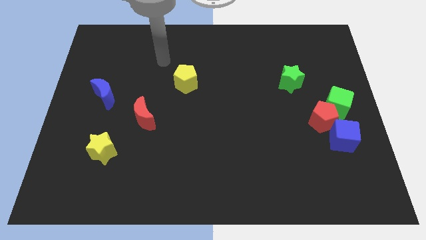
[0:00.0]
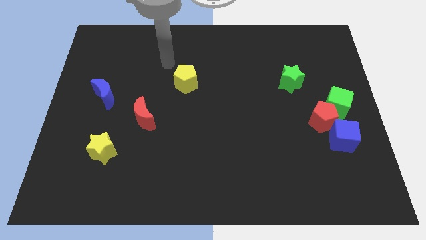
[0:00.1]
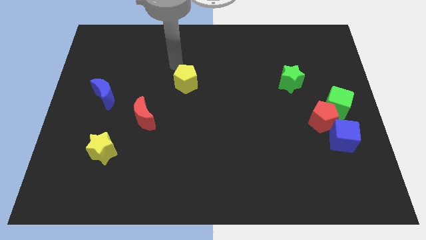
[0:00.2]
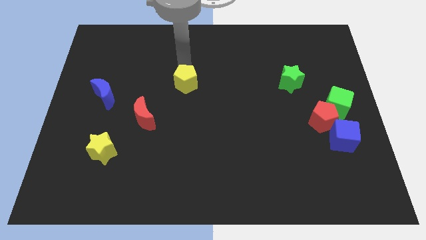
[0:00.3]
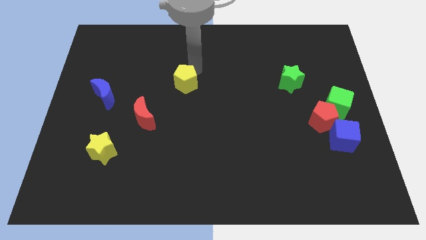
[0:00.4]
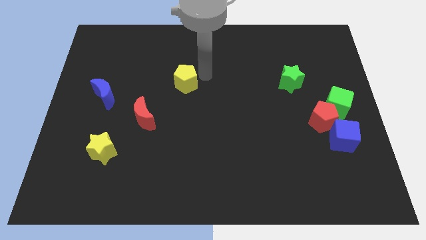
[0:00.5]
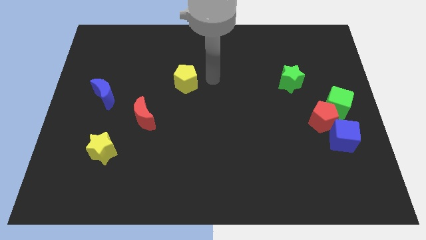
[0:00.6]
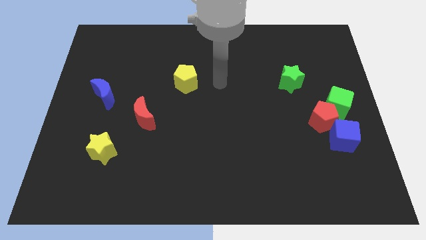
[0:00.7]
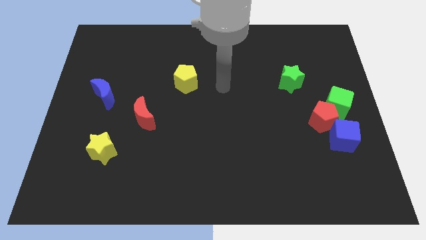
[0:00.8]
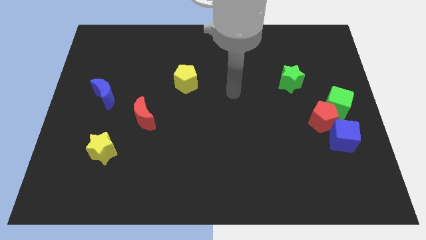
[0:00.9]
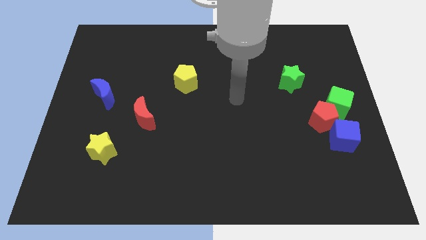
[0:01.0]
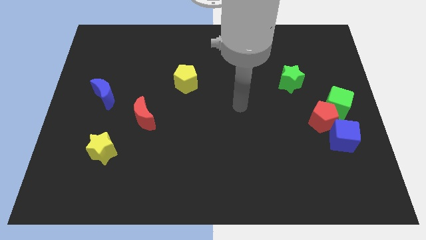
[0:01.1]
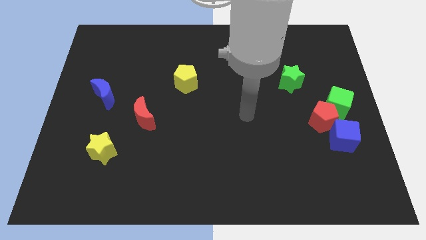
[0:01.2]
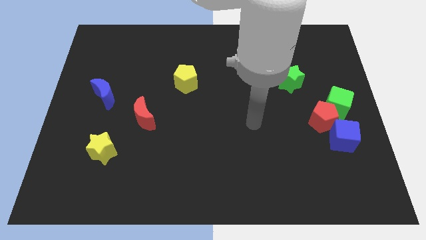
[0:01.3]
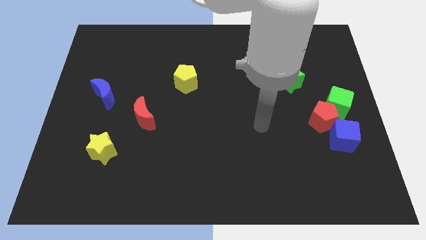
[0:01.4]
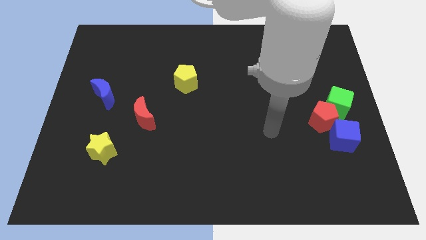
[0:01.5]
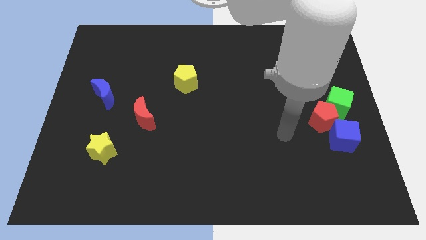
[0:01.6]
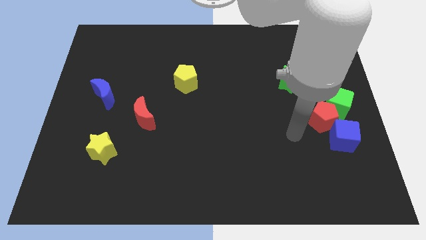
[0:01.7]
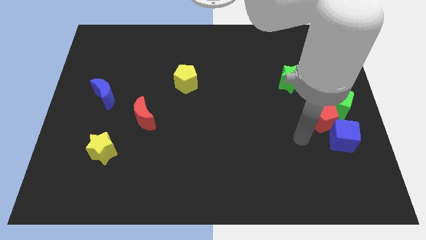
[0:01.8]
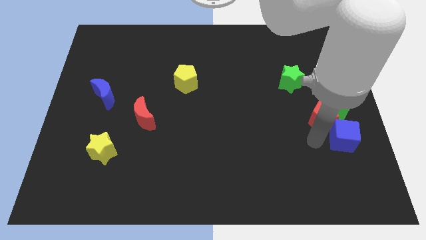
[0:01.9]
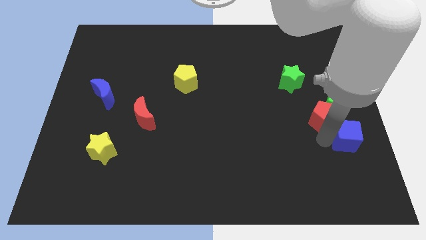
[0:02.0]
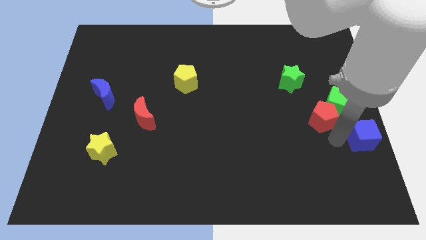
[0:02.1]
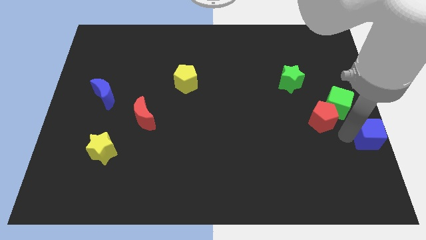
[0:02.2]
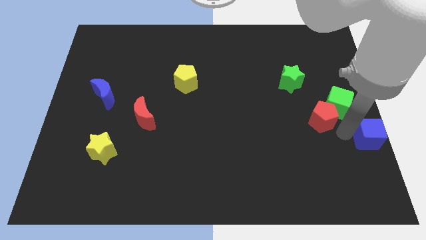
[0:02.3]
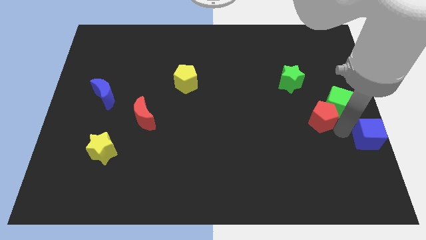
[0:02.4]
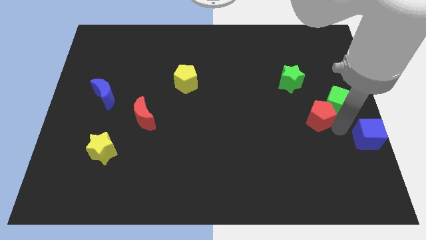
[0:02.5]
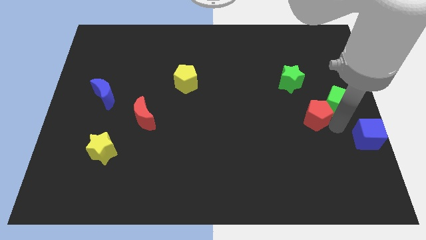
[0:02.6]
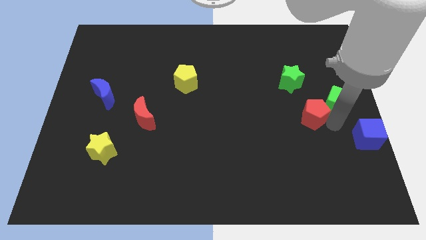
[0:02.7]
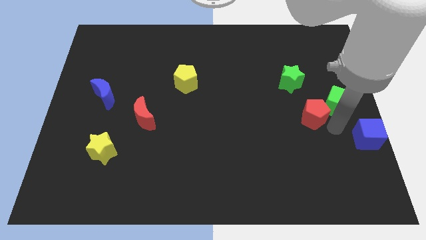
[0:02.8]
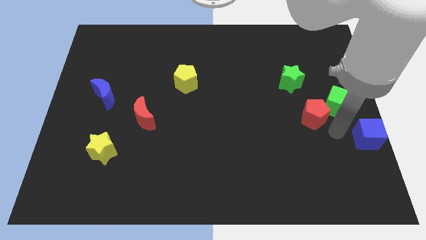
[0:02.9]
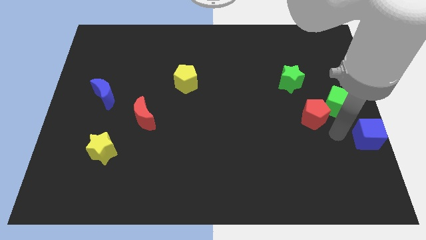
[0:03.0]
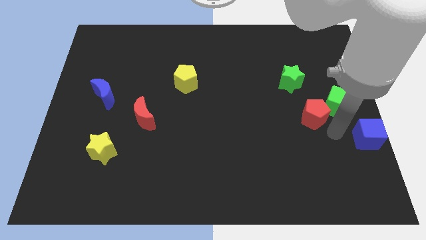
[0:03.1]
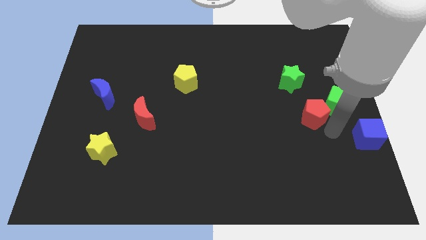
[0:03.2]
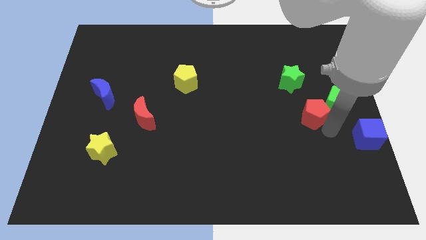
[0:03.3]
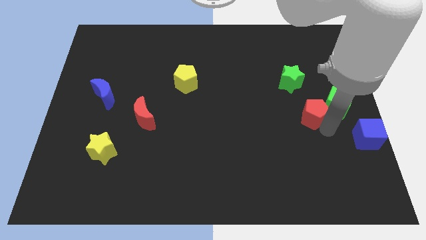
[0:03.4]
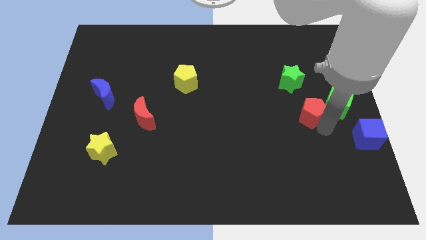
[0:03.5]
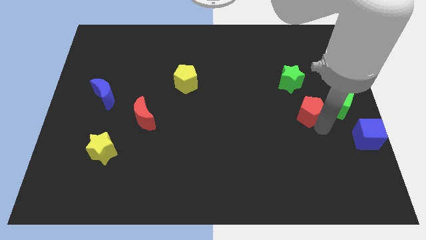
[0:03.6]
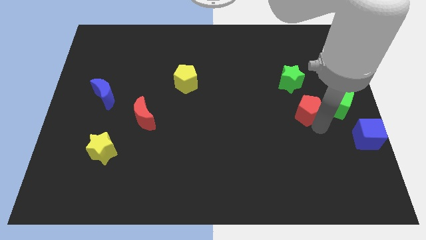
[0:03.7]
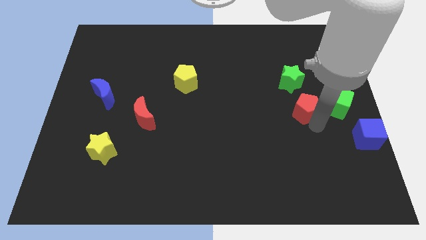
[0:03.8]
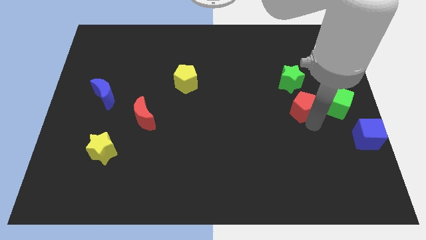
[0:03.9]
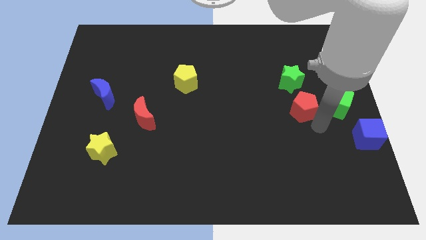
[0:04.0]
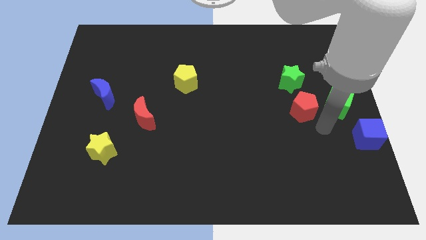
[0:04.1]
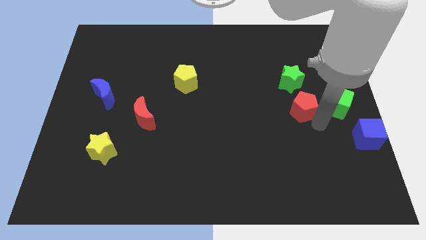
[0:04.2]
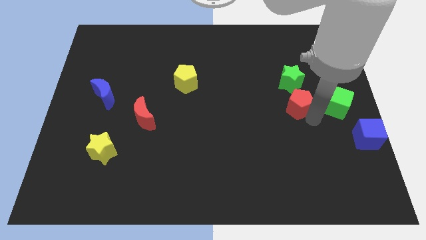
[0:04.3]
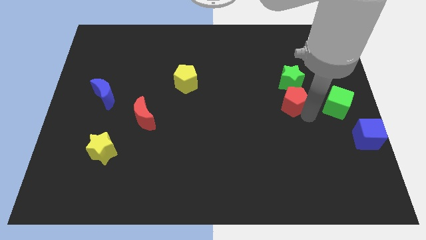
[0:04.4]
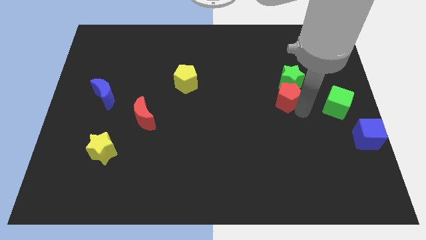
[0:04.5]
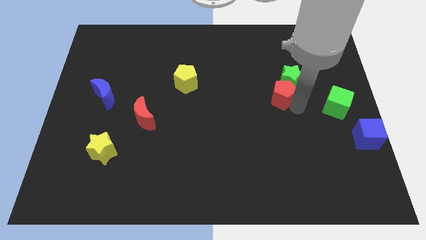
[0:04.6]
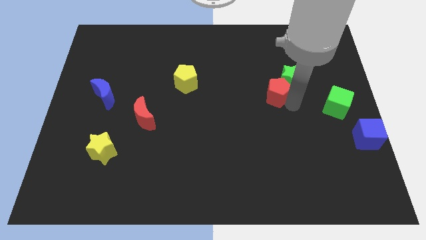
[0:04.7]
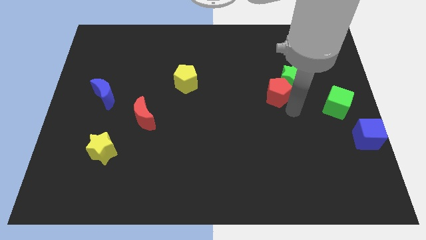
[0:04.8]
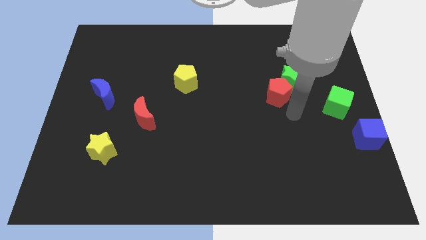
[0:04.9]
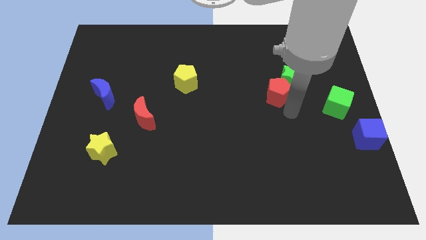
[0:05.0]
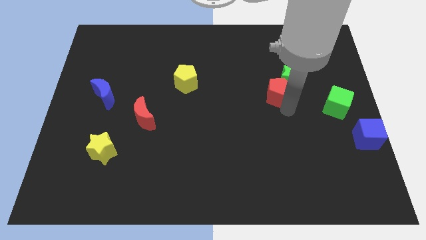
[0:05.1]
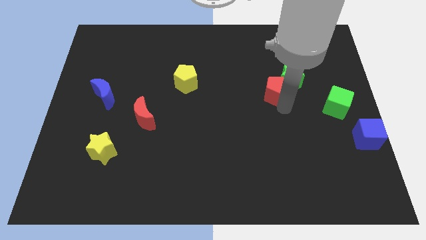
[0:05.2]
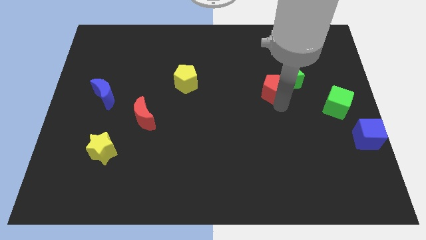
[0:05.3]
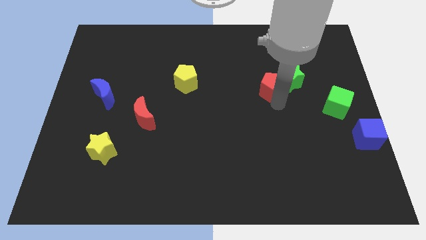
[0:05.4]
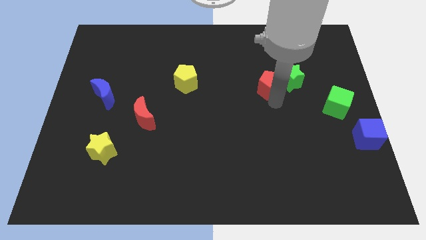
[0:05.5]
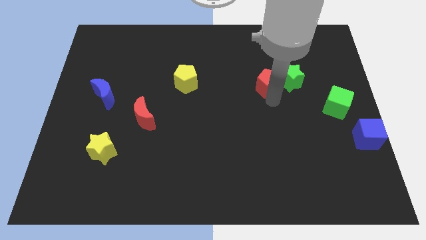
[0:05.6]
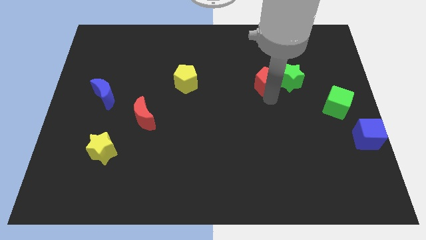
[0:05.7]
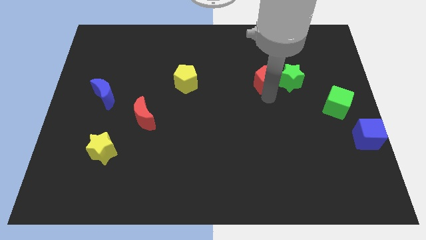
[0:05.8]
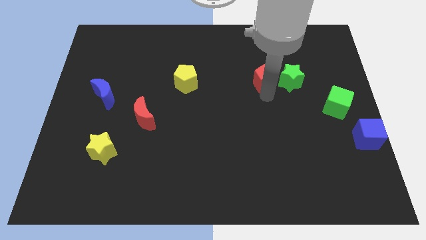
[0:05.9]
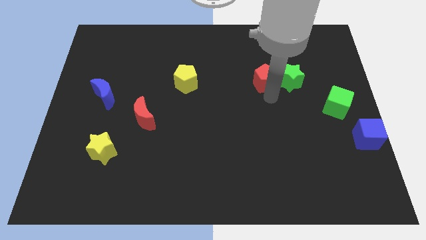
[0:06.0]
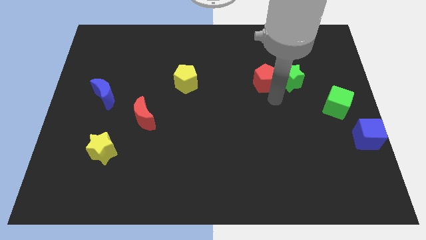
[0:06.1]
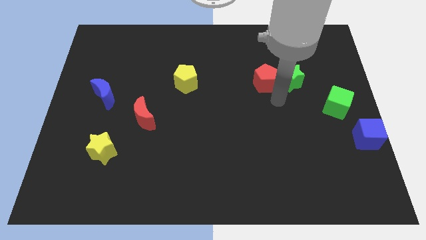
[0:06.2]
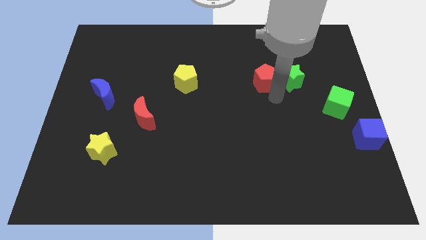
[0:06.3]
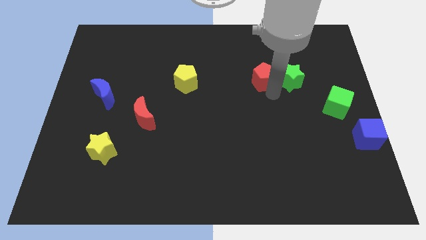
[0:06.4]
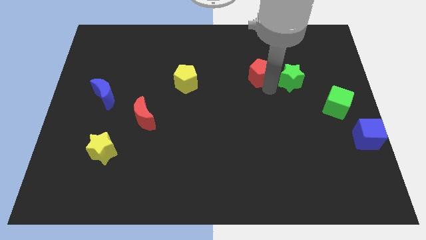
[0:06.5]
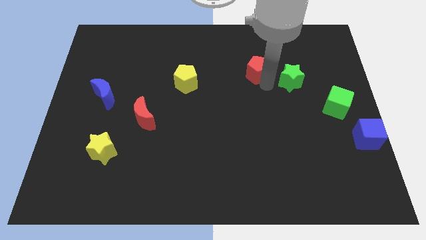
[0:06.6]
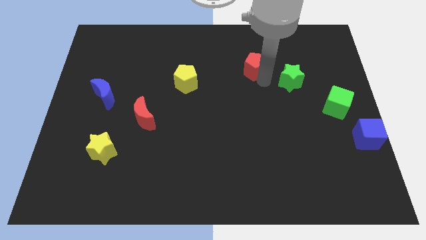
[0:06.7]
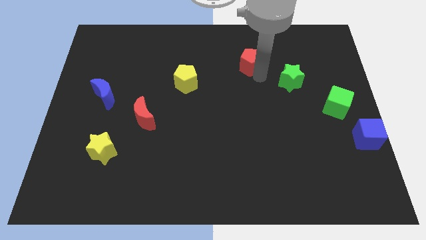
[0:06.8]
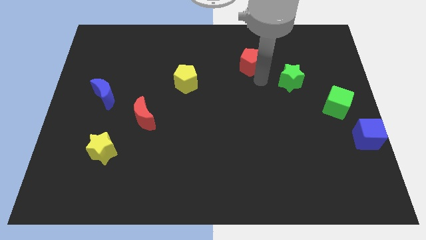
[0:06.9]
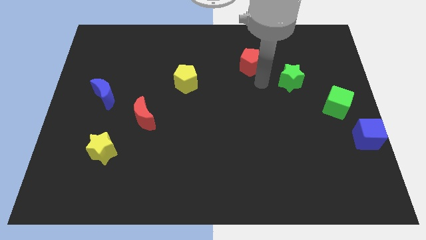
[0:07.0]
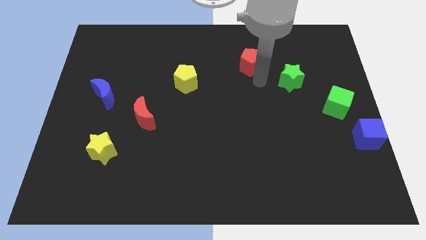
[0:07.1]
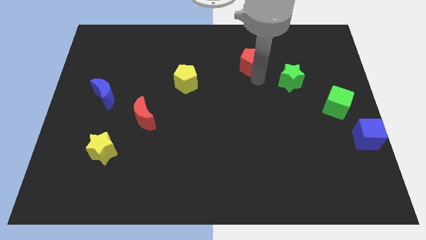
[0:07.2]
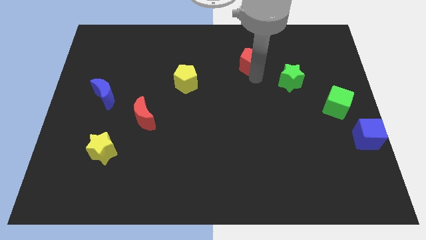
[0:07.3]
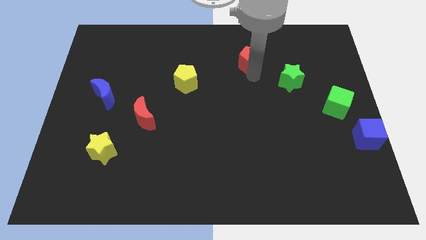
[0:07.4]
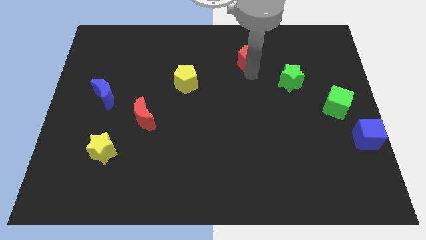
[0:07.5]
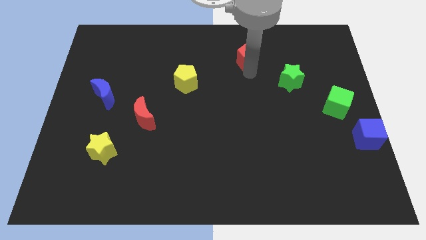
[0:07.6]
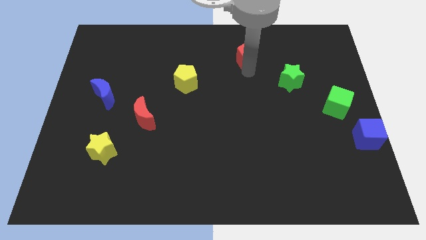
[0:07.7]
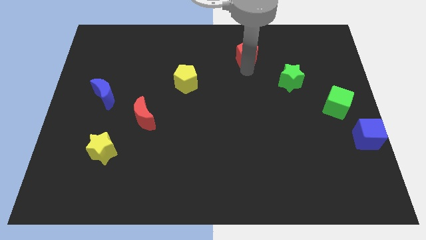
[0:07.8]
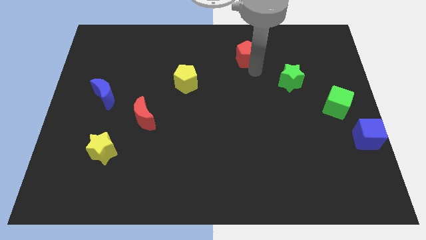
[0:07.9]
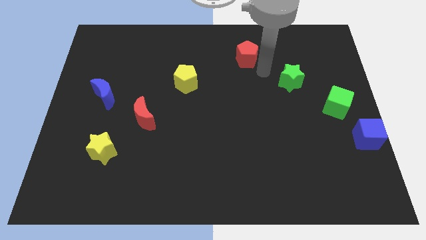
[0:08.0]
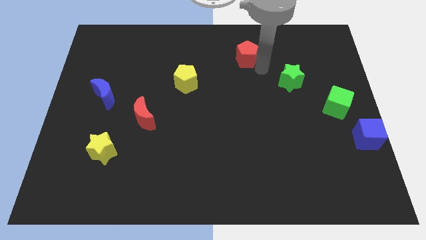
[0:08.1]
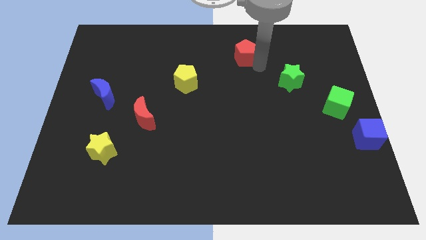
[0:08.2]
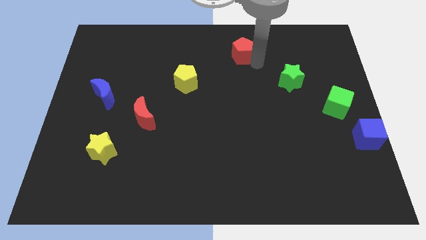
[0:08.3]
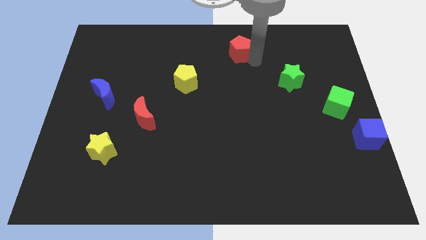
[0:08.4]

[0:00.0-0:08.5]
put the red pentagon to the top
